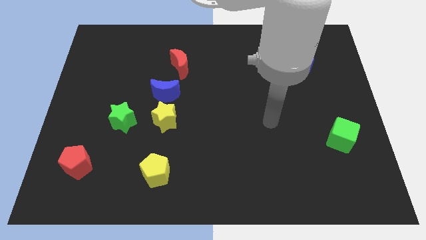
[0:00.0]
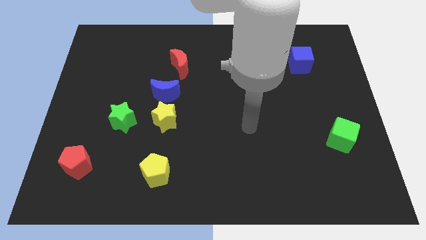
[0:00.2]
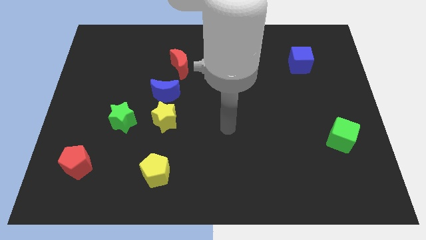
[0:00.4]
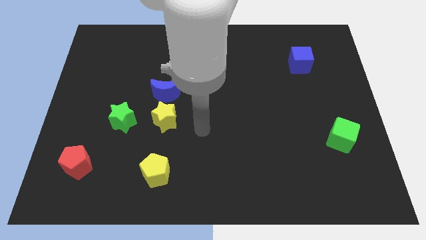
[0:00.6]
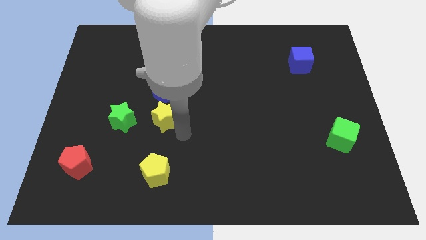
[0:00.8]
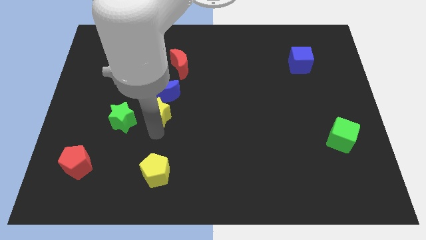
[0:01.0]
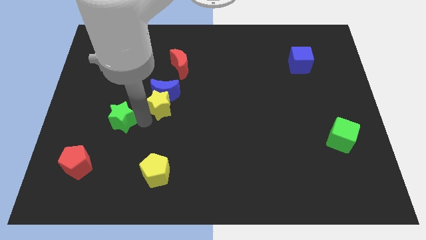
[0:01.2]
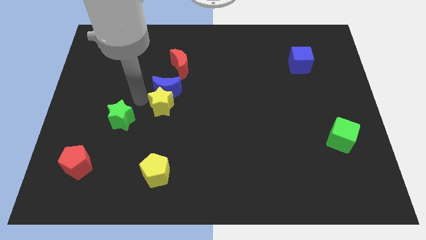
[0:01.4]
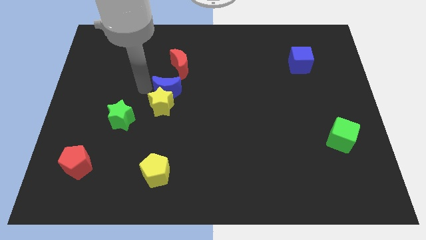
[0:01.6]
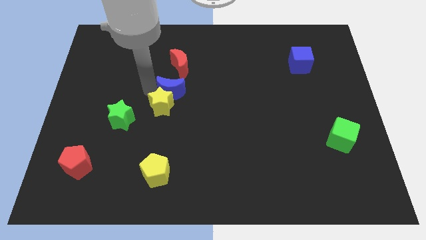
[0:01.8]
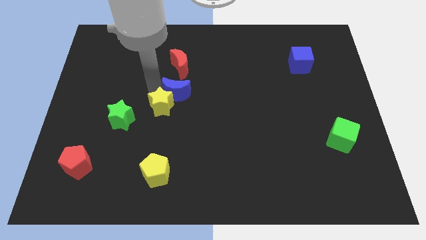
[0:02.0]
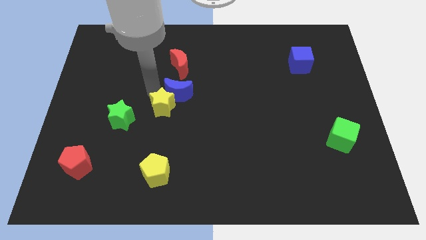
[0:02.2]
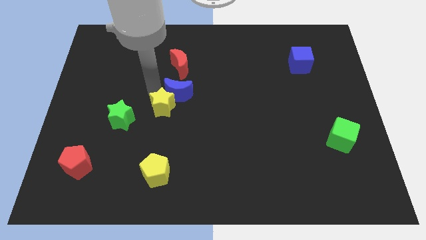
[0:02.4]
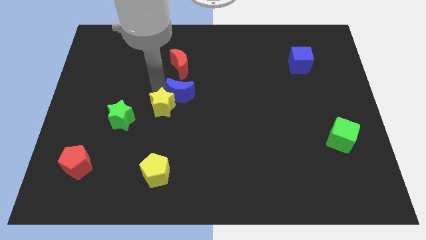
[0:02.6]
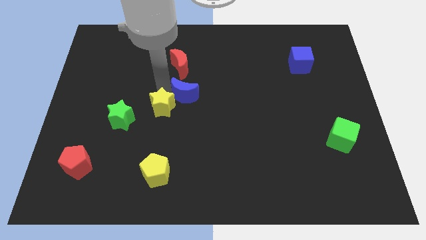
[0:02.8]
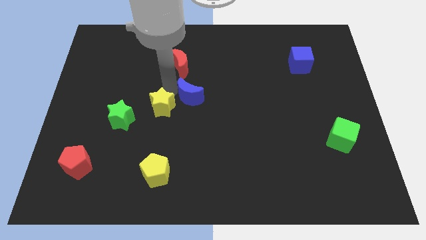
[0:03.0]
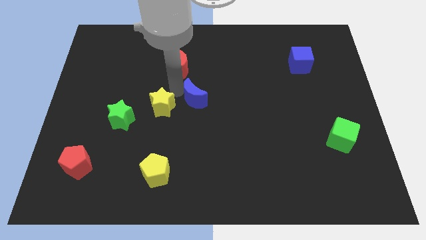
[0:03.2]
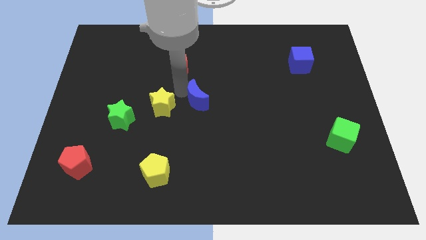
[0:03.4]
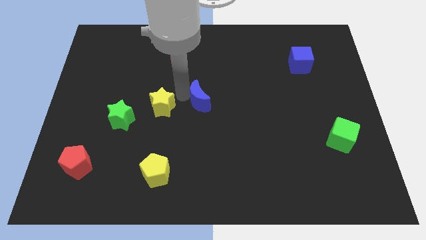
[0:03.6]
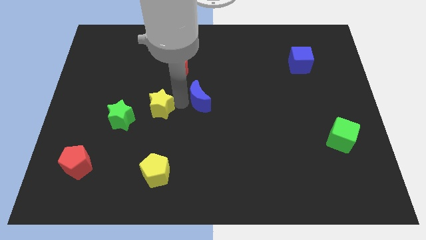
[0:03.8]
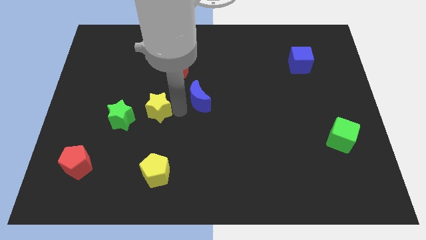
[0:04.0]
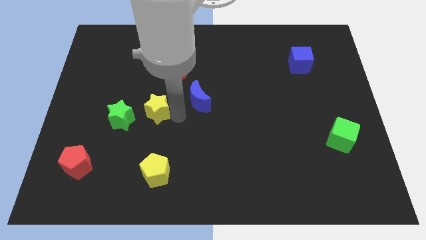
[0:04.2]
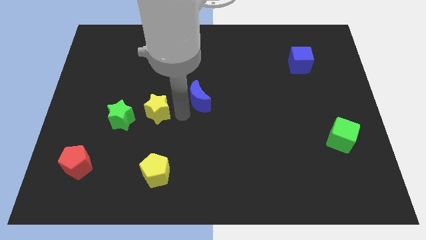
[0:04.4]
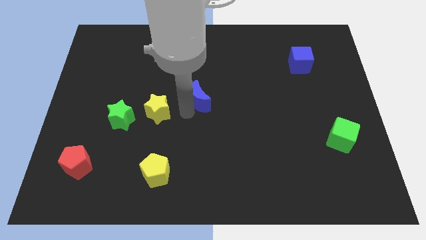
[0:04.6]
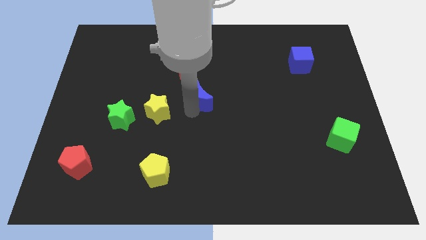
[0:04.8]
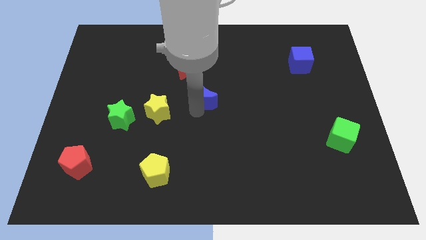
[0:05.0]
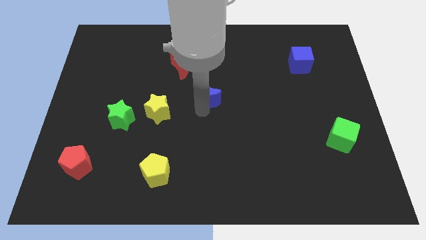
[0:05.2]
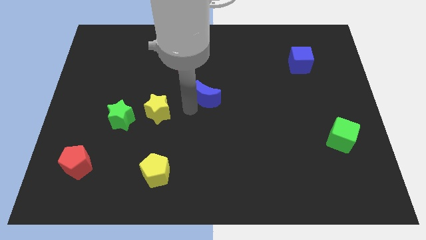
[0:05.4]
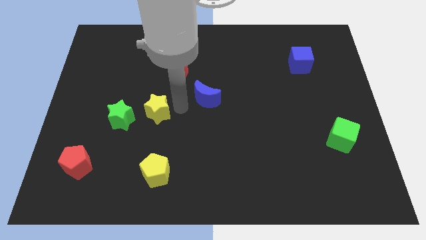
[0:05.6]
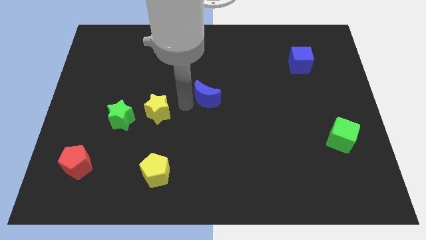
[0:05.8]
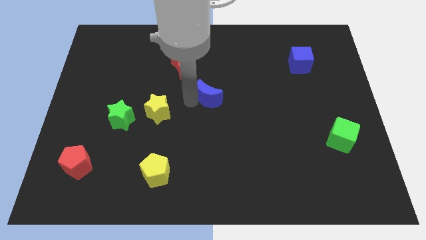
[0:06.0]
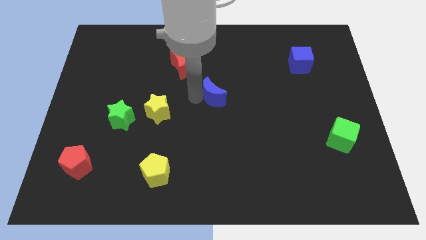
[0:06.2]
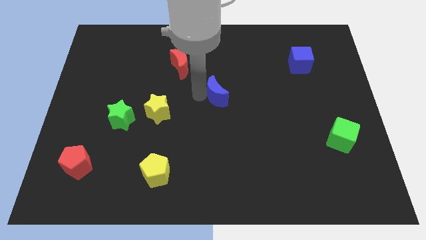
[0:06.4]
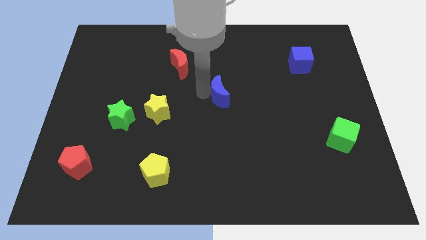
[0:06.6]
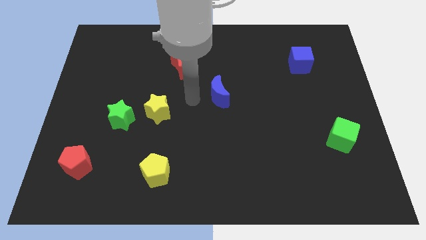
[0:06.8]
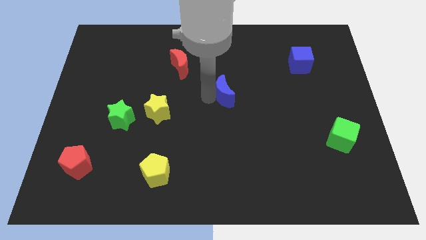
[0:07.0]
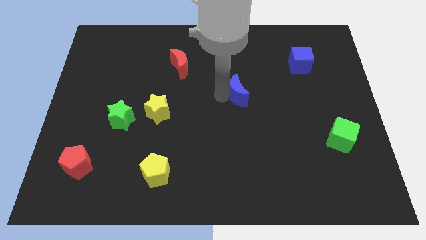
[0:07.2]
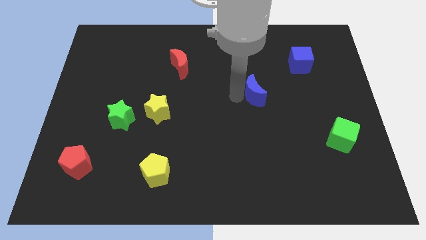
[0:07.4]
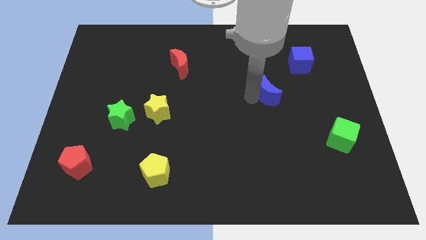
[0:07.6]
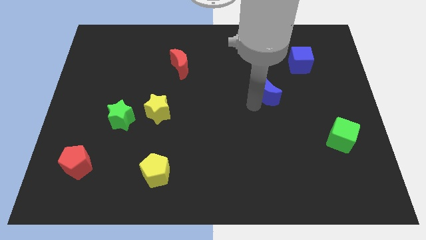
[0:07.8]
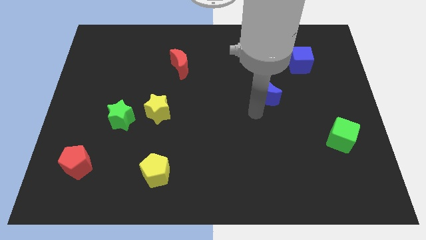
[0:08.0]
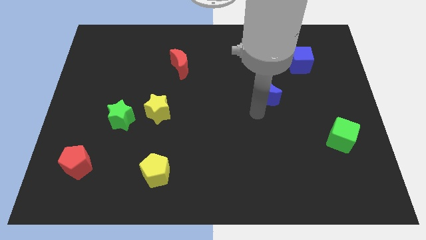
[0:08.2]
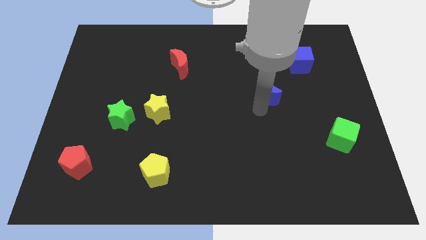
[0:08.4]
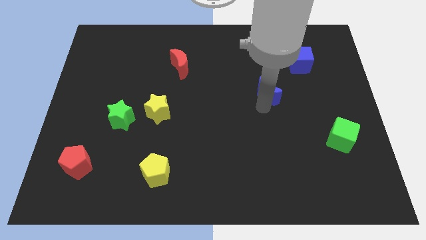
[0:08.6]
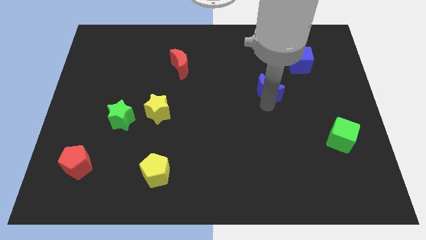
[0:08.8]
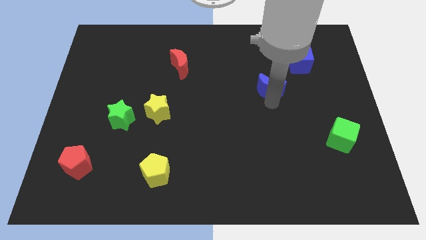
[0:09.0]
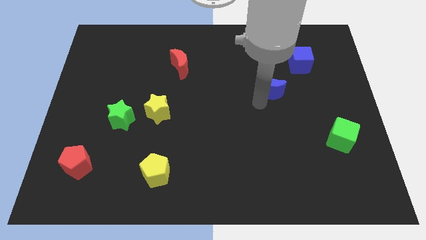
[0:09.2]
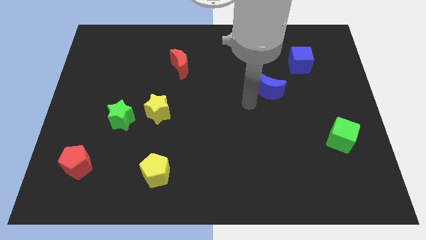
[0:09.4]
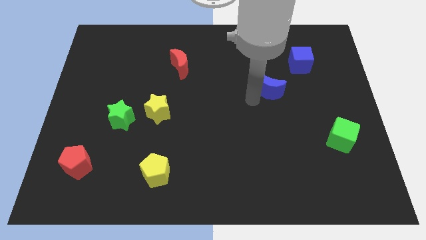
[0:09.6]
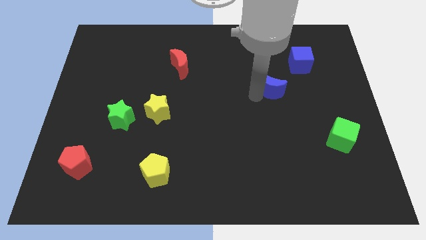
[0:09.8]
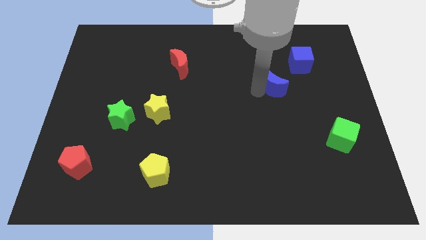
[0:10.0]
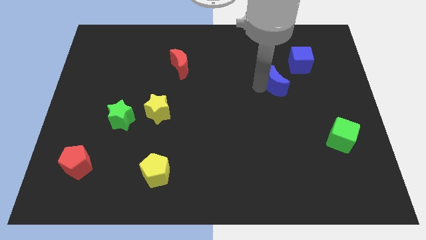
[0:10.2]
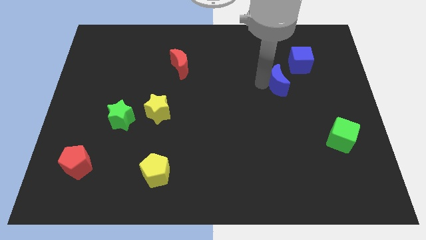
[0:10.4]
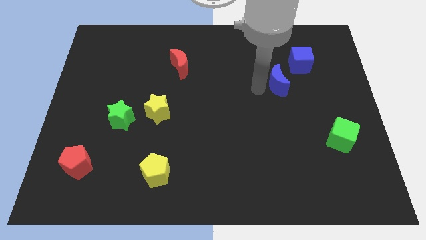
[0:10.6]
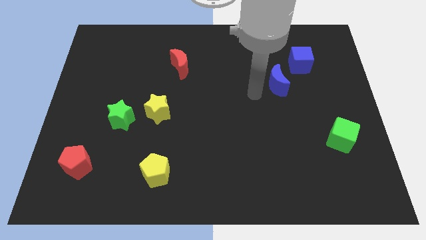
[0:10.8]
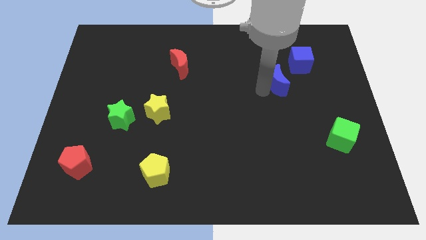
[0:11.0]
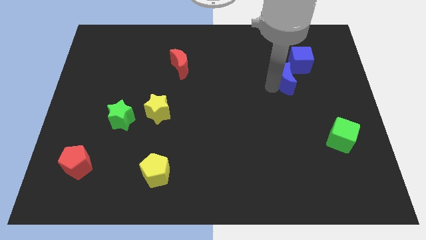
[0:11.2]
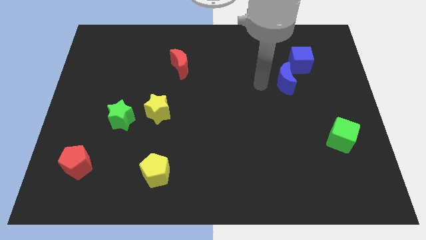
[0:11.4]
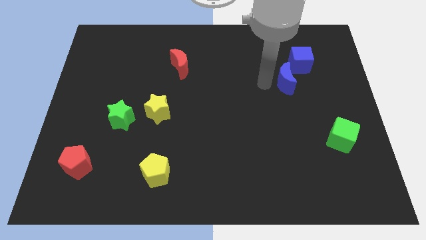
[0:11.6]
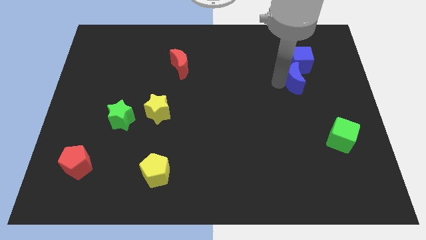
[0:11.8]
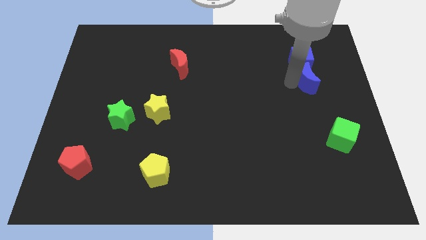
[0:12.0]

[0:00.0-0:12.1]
put the blue moon to the bottom right of the blue cube

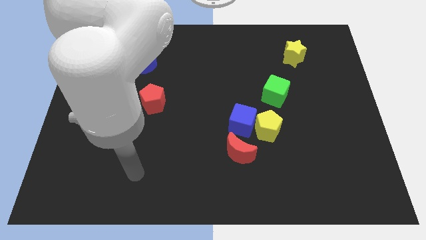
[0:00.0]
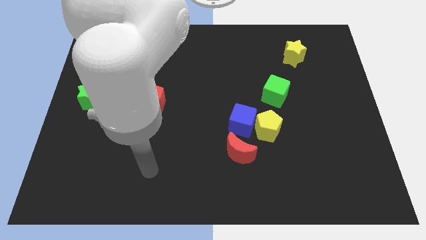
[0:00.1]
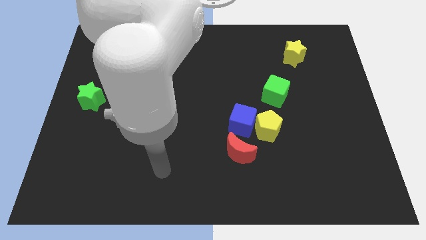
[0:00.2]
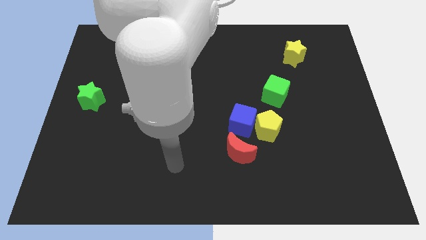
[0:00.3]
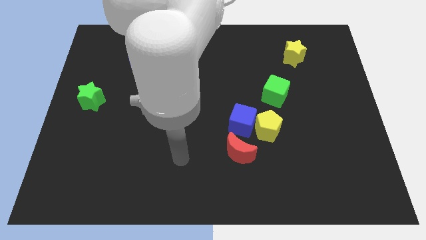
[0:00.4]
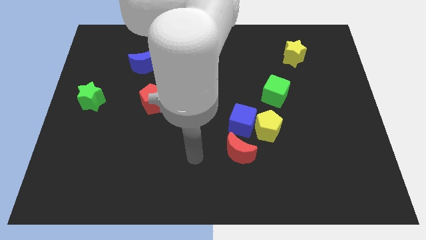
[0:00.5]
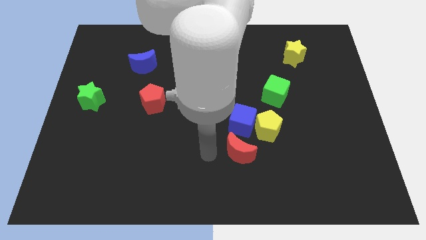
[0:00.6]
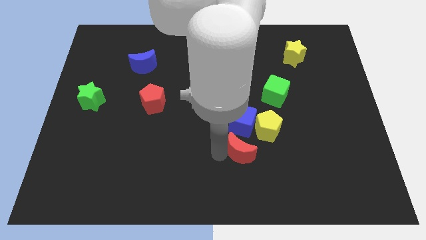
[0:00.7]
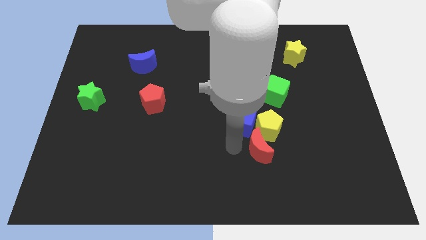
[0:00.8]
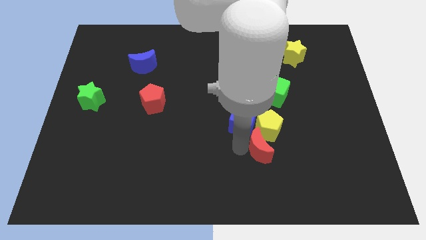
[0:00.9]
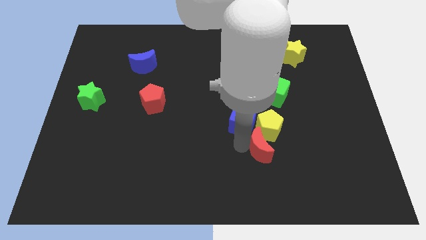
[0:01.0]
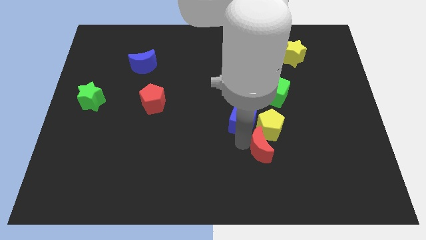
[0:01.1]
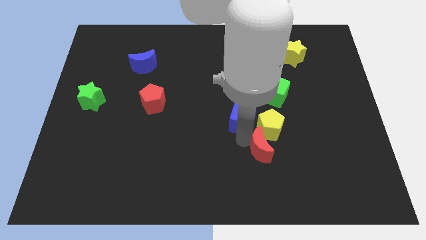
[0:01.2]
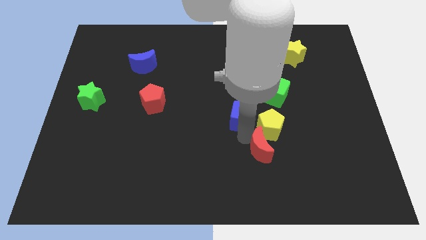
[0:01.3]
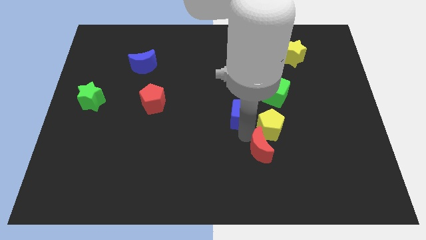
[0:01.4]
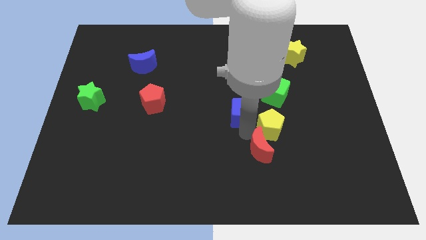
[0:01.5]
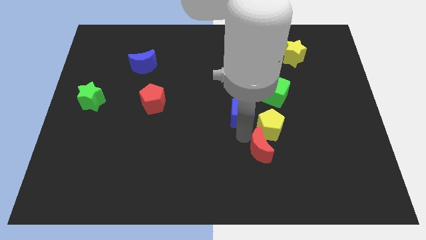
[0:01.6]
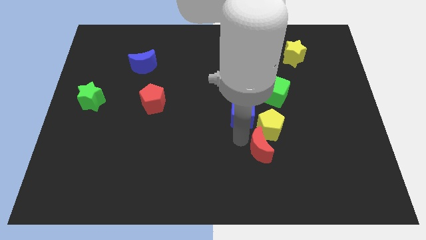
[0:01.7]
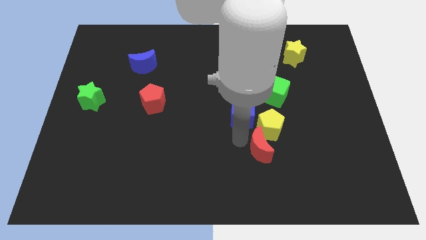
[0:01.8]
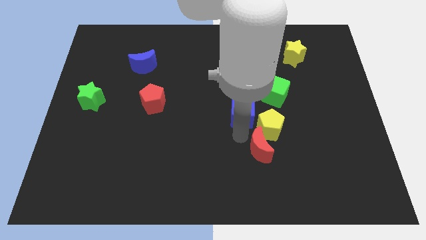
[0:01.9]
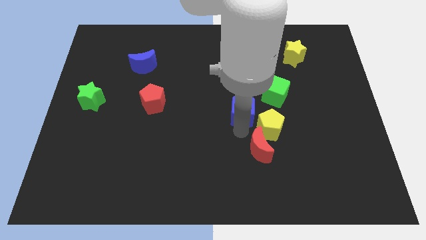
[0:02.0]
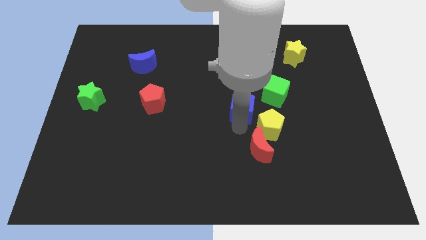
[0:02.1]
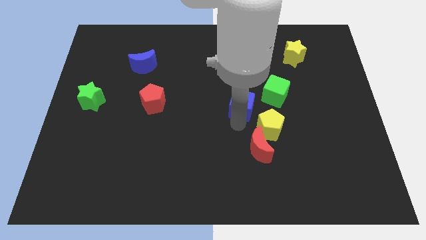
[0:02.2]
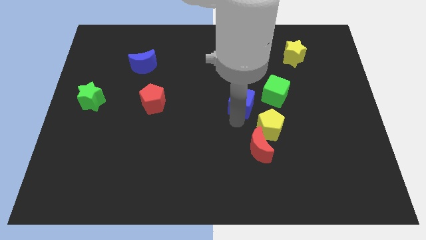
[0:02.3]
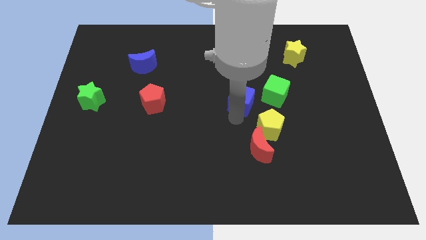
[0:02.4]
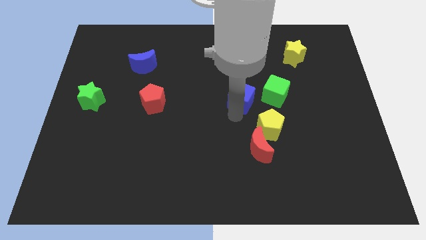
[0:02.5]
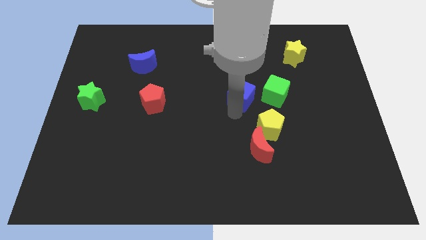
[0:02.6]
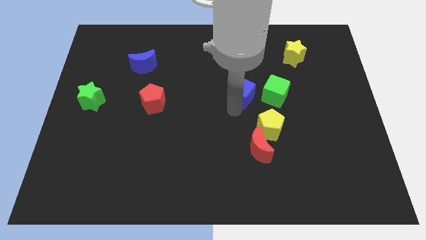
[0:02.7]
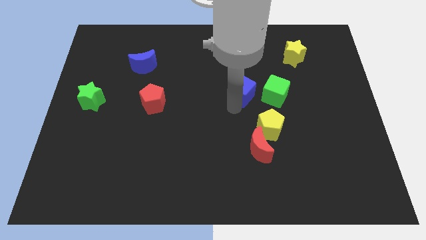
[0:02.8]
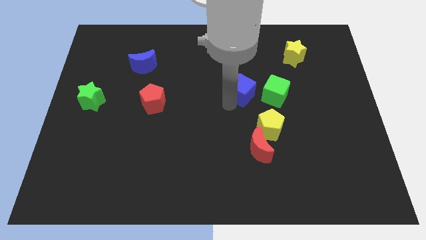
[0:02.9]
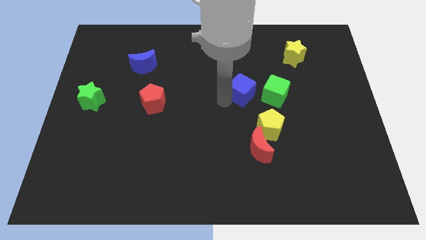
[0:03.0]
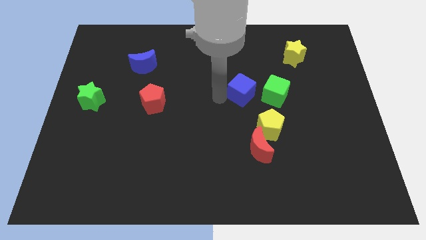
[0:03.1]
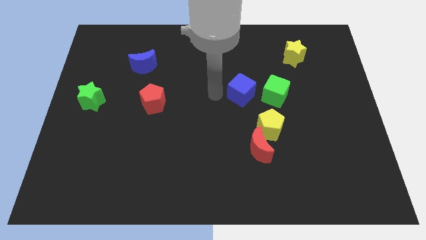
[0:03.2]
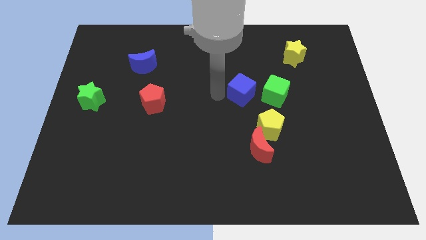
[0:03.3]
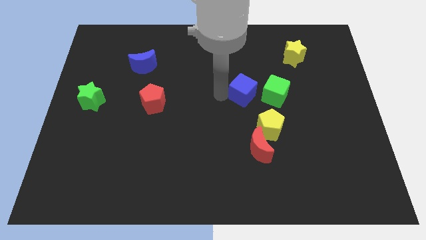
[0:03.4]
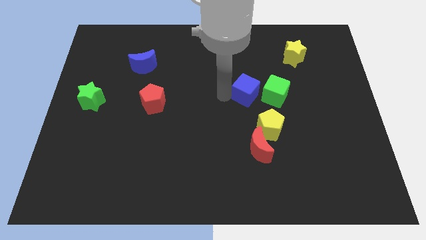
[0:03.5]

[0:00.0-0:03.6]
put the blue cube to the top side of the yellow pentagon
